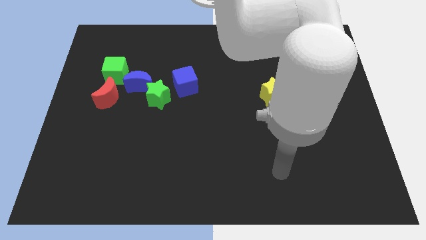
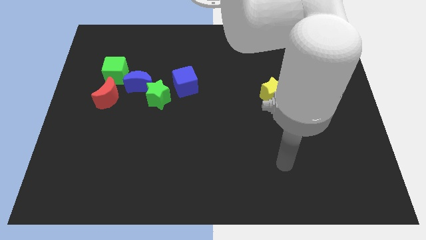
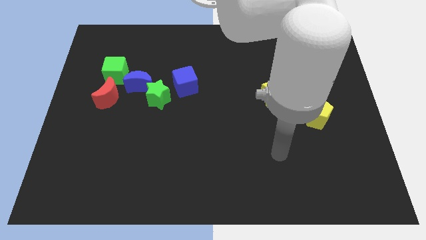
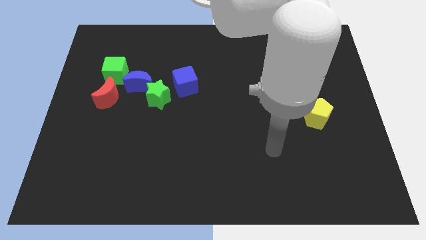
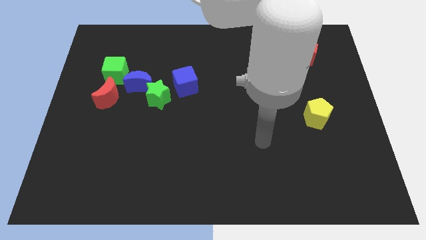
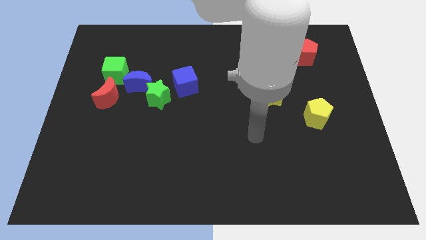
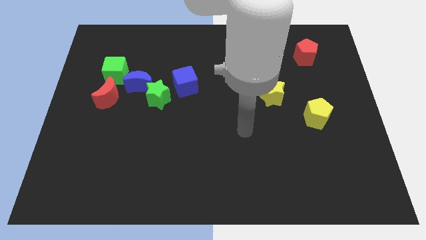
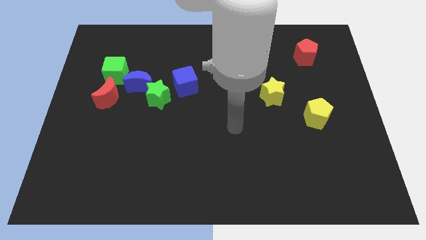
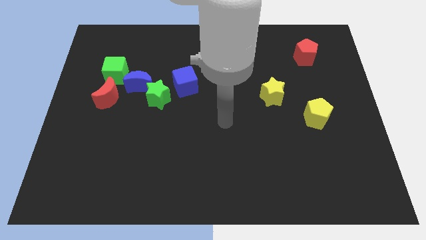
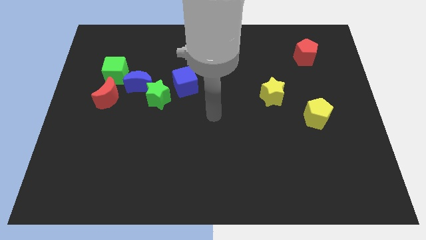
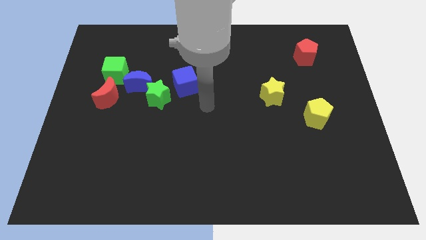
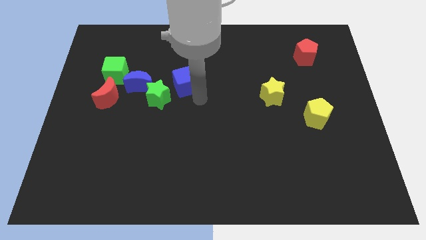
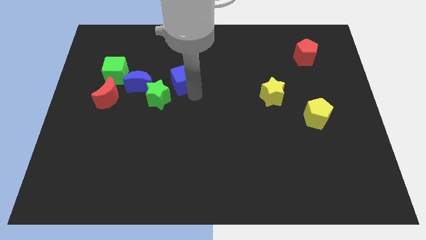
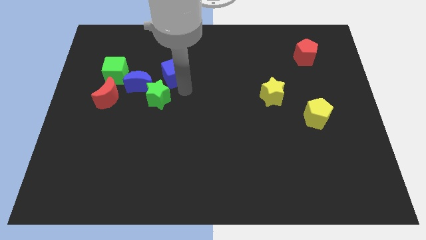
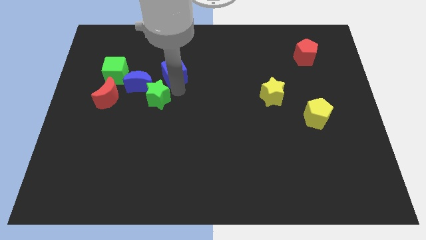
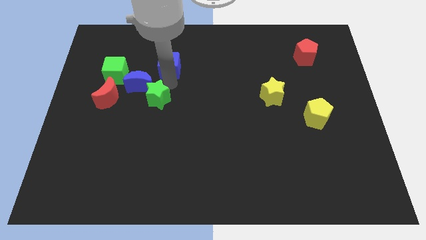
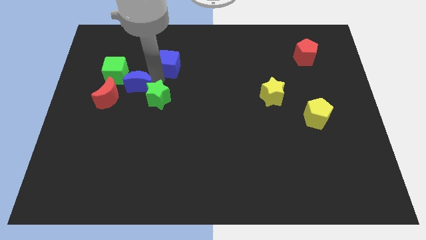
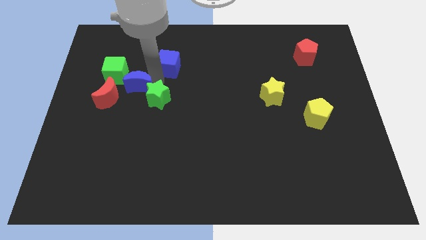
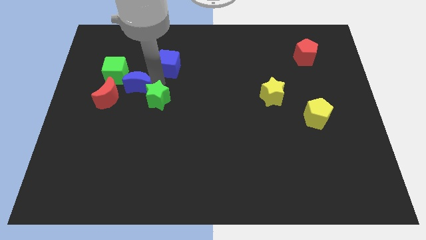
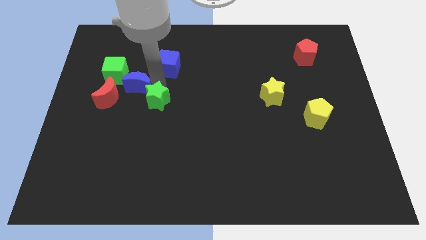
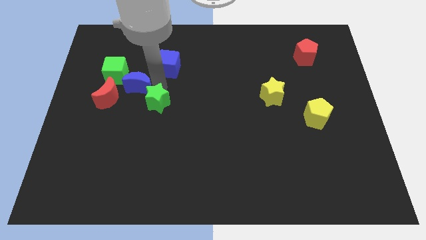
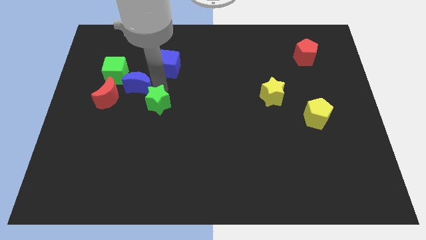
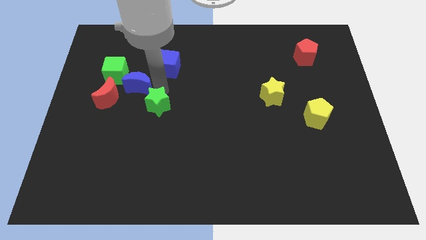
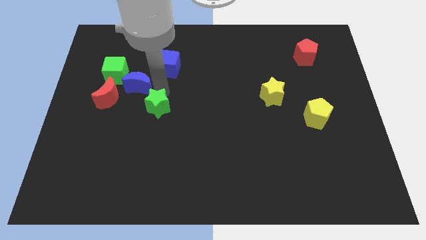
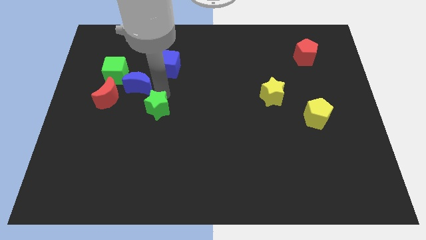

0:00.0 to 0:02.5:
separate the green star from the blue moon and blue cube

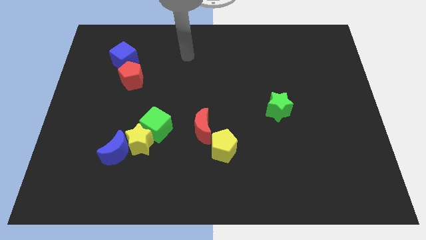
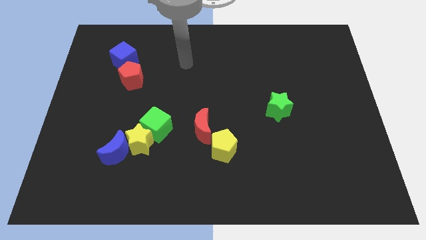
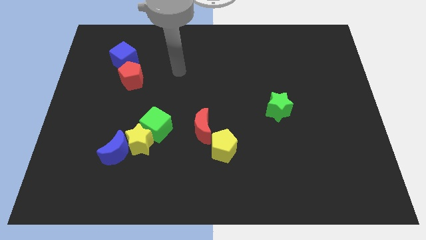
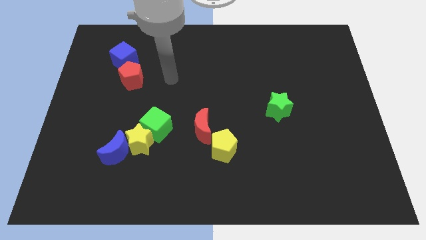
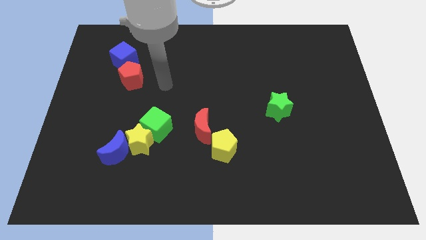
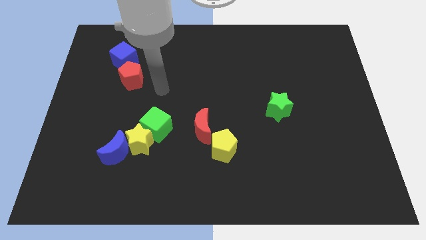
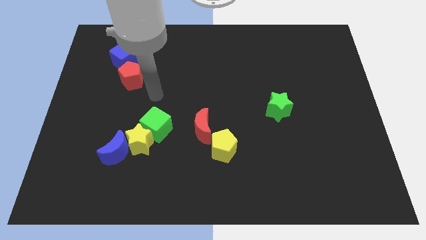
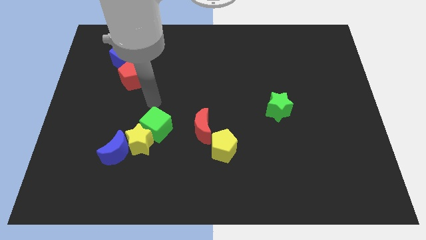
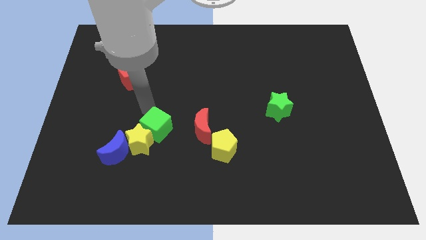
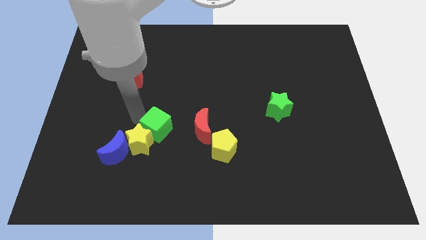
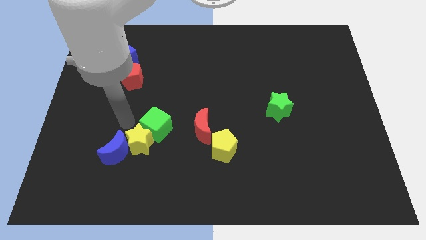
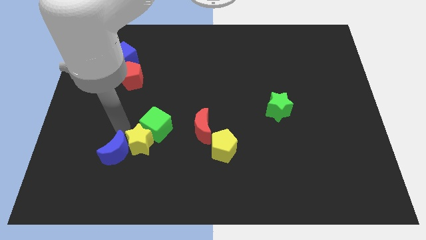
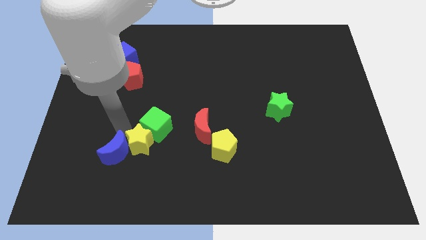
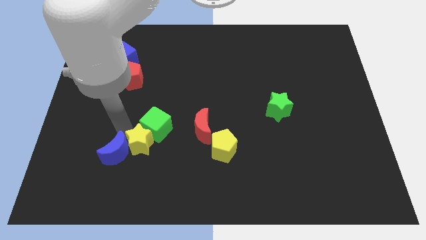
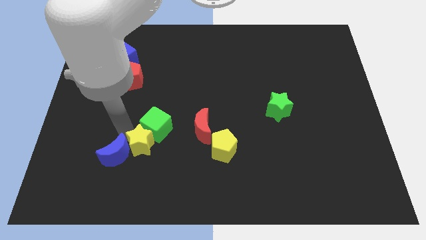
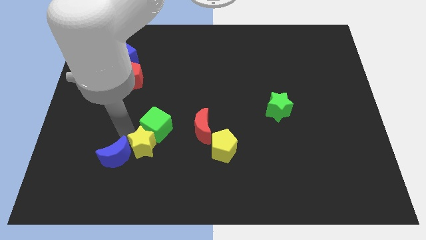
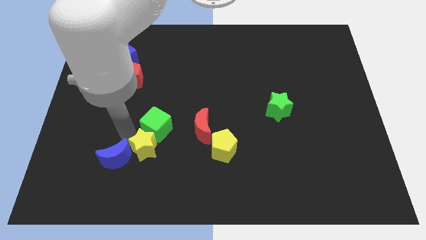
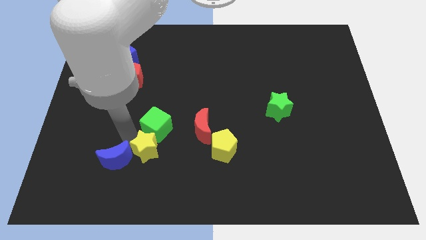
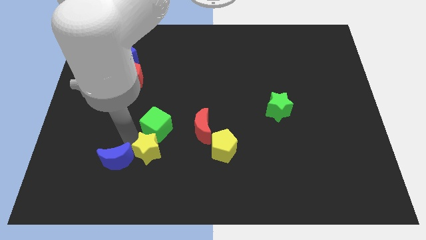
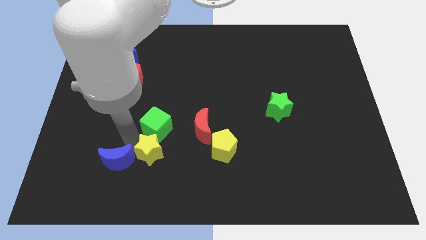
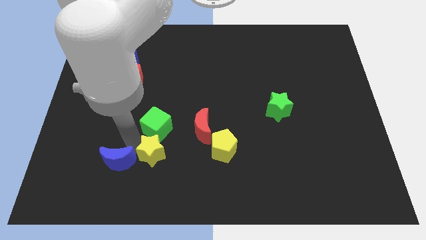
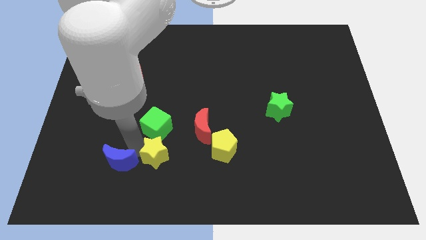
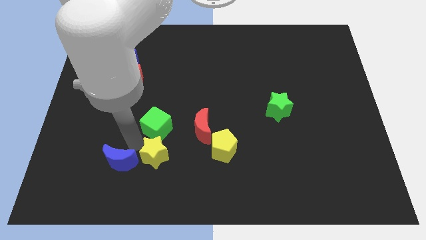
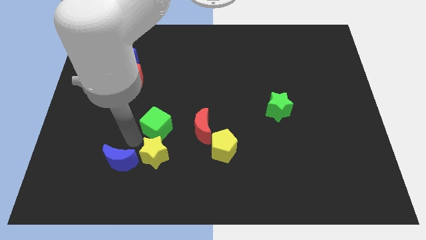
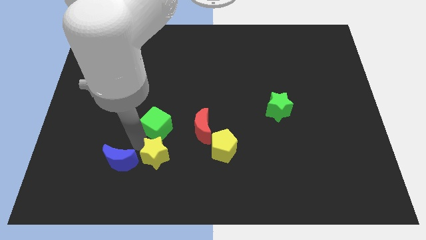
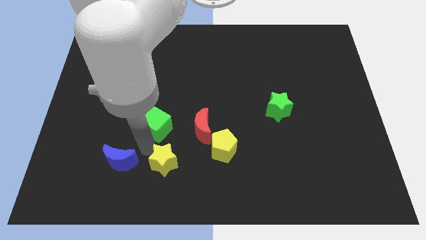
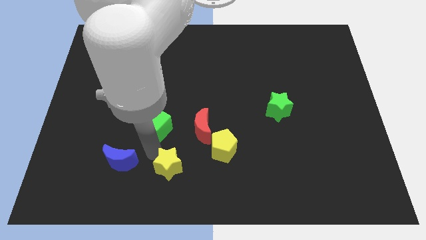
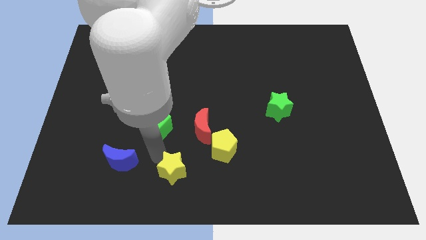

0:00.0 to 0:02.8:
pull the yellow star apart from the green cube and blue moon

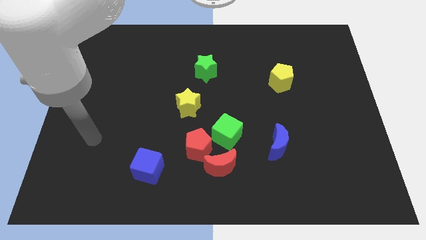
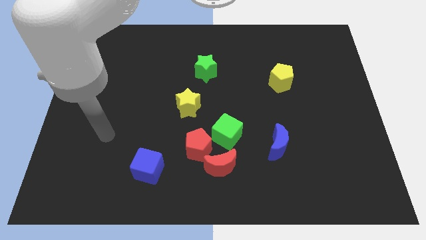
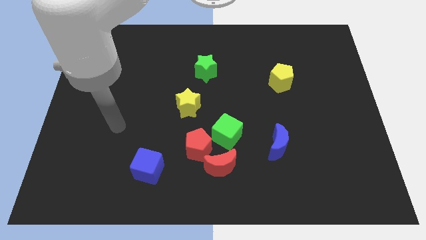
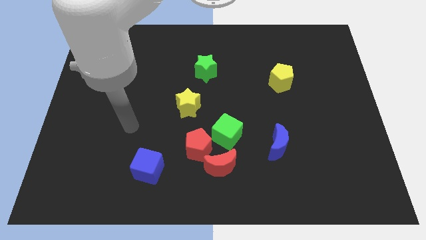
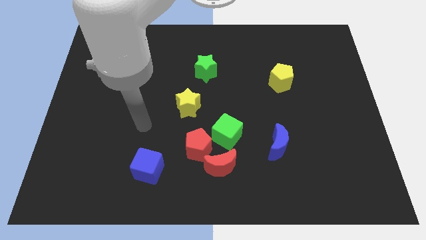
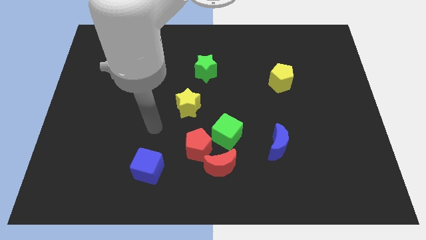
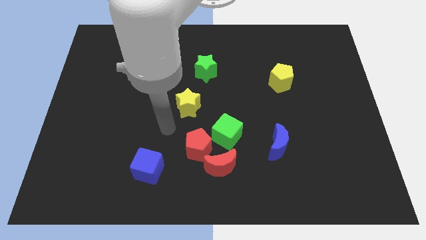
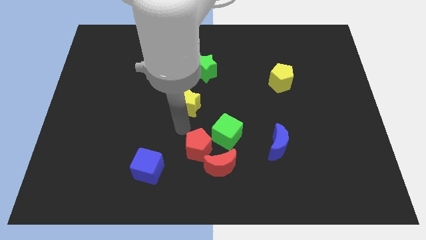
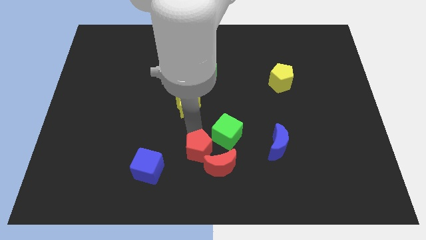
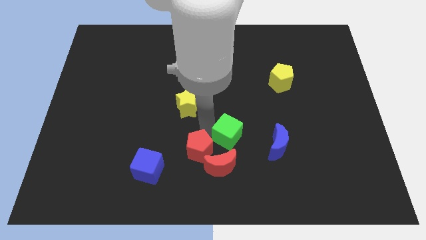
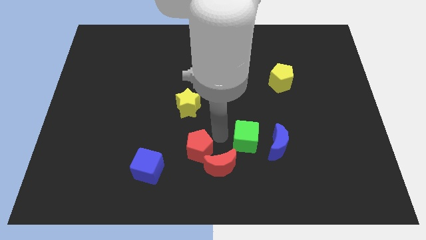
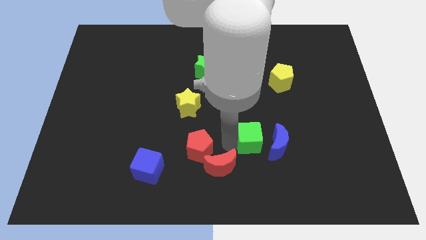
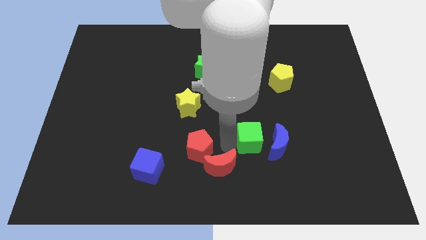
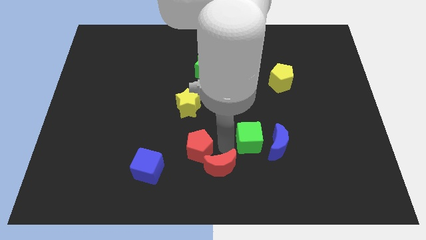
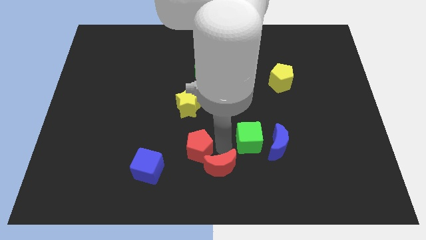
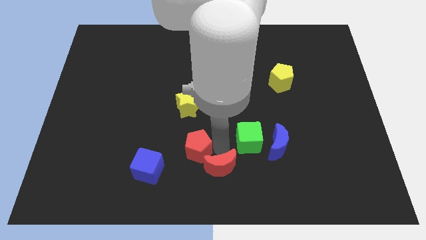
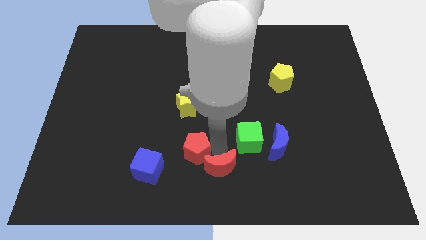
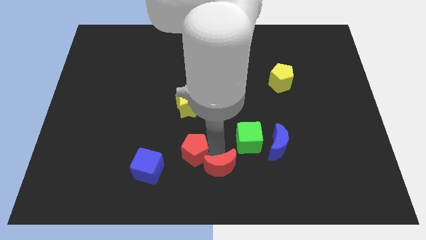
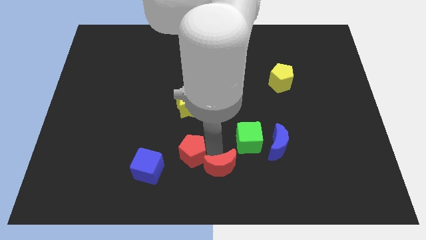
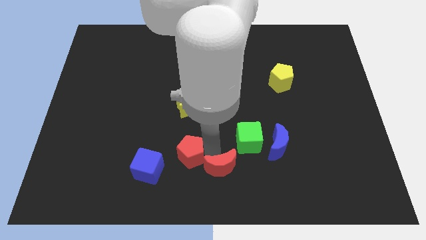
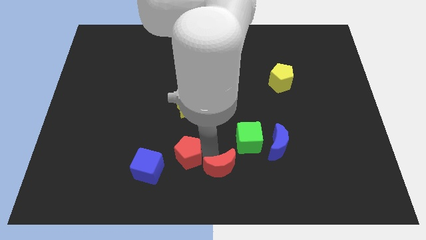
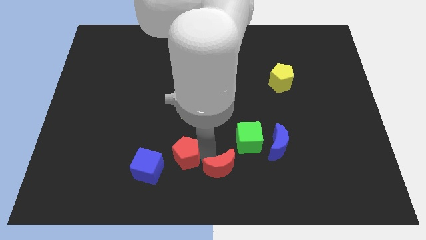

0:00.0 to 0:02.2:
separate the red pentagon from the red moon and green cube

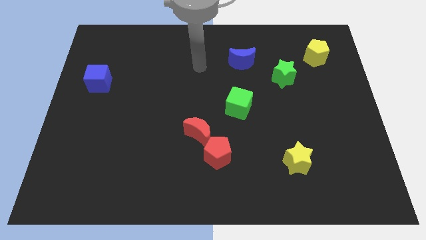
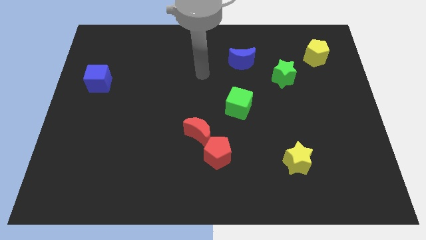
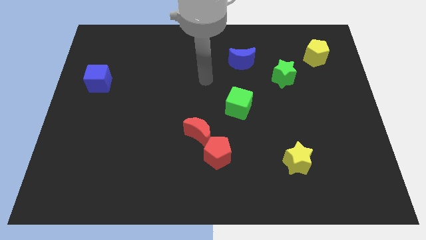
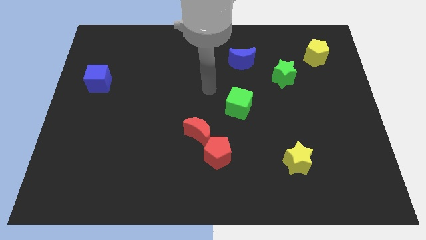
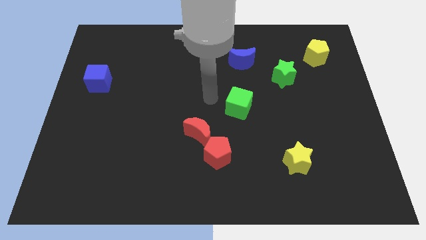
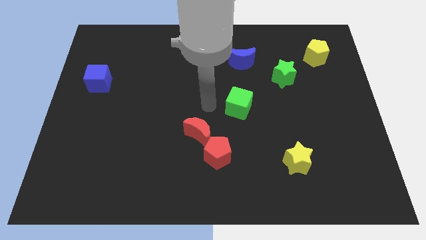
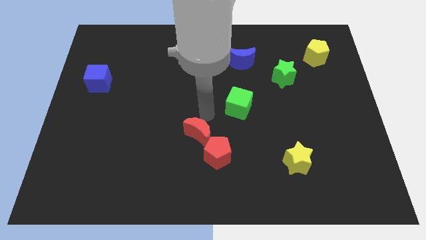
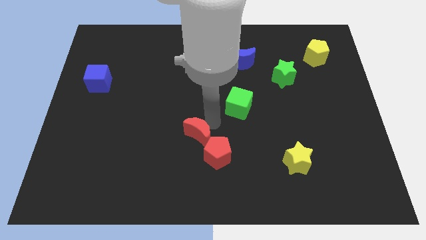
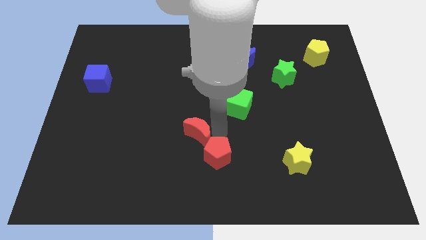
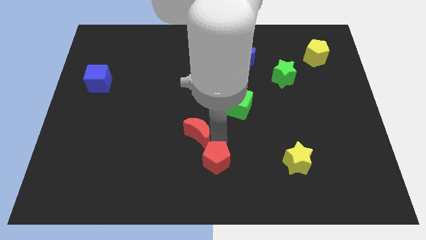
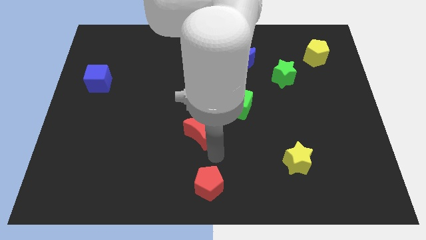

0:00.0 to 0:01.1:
pull the red moon apart from the red pentagon

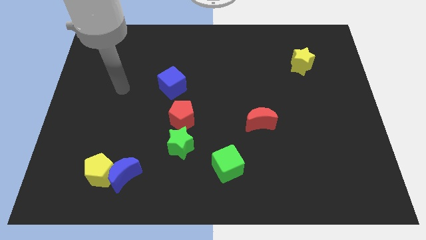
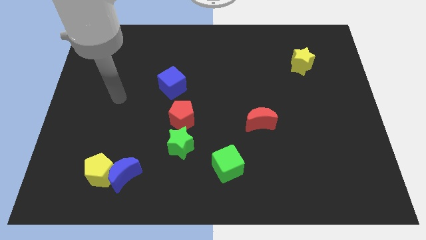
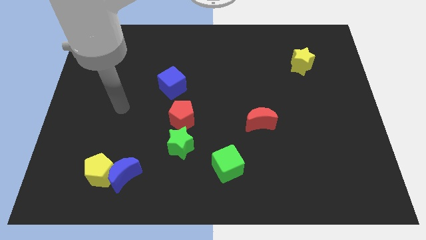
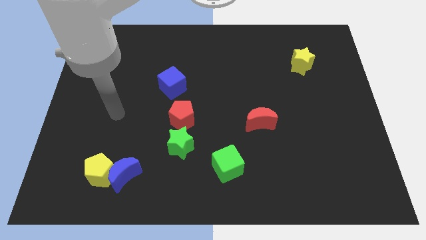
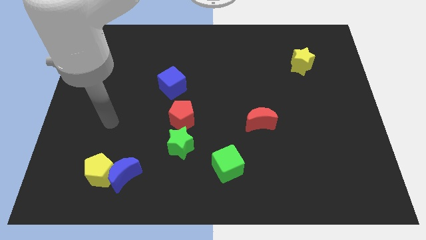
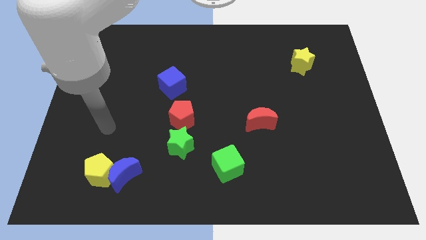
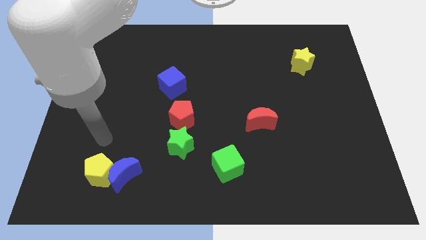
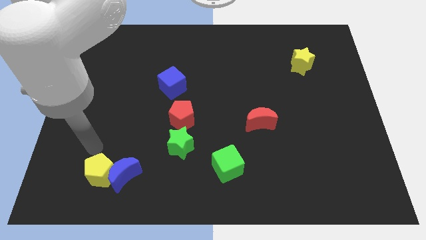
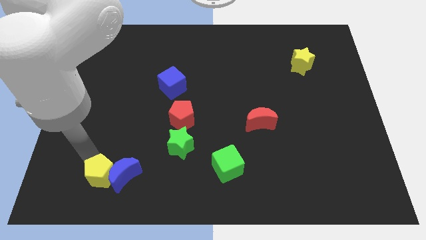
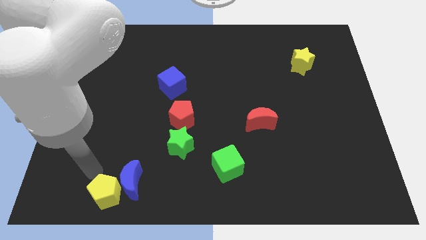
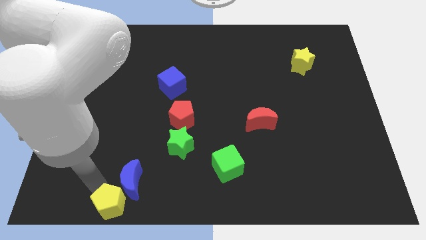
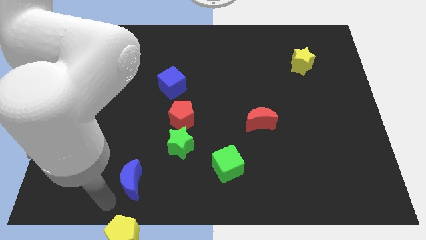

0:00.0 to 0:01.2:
separate the blue moon from the yellow pentagon
